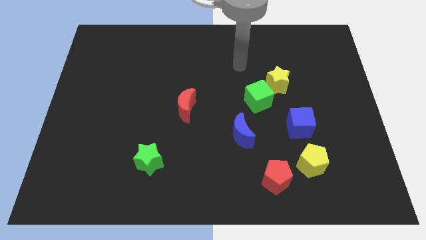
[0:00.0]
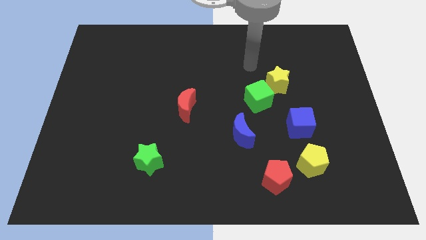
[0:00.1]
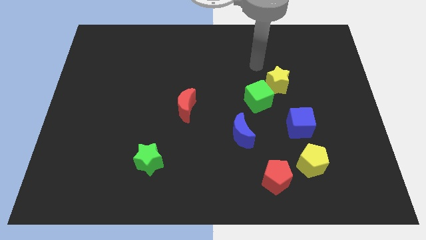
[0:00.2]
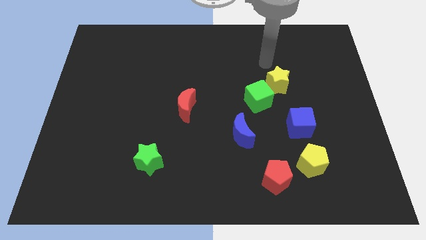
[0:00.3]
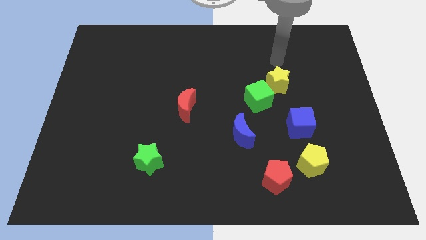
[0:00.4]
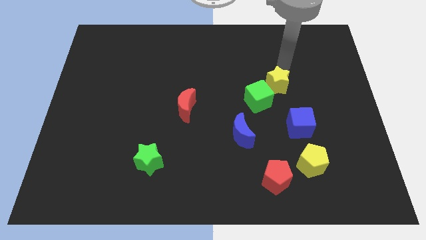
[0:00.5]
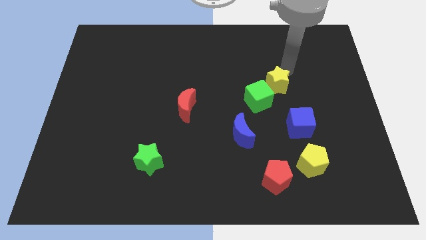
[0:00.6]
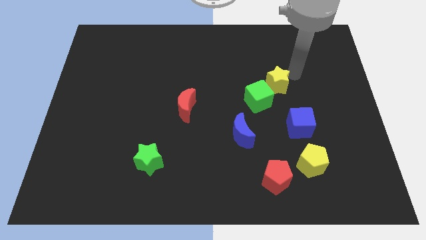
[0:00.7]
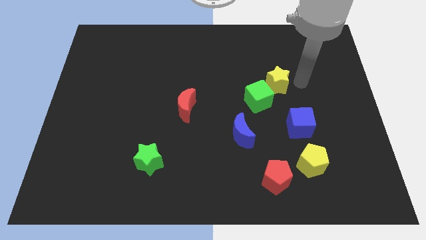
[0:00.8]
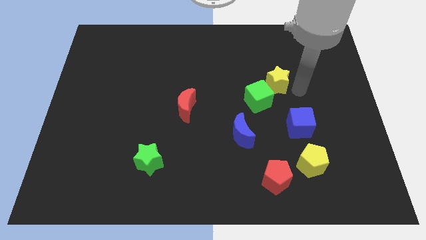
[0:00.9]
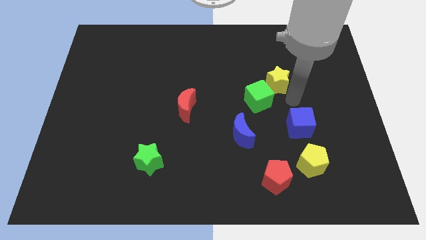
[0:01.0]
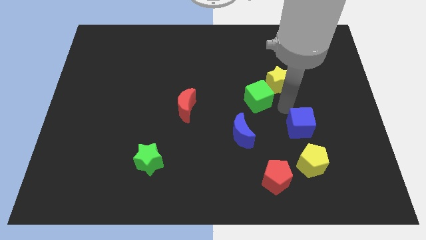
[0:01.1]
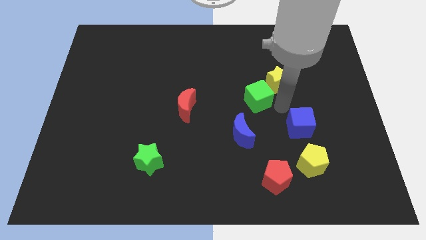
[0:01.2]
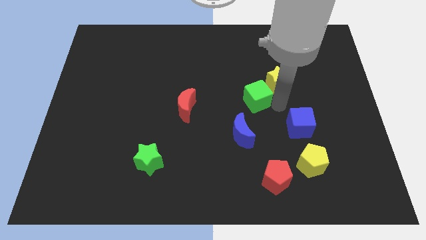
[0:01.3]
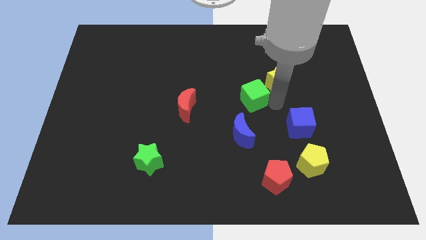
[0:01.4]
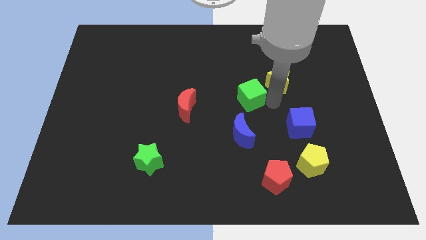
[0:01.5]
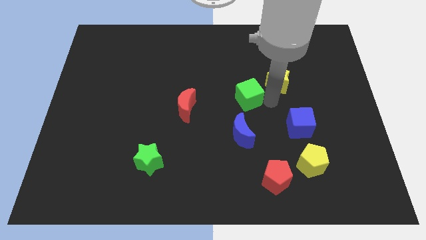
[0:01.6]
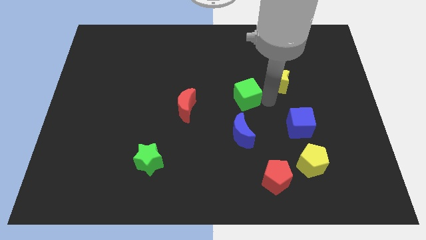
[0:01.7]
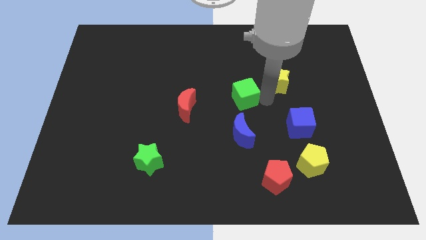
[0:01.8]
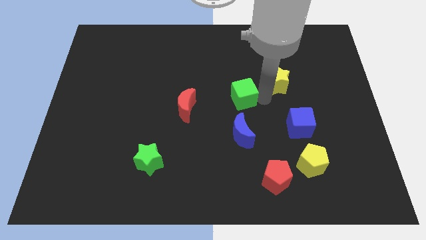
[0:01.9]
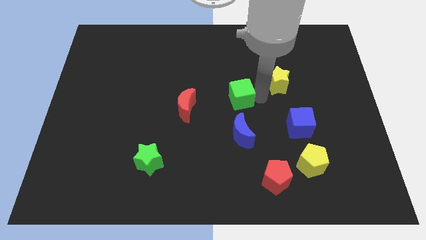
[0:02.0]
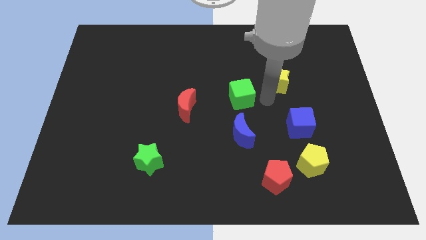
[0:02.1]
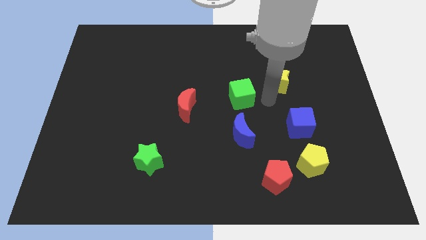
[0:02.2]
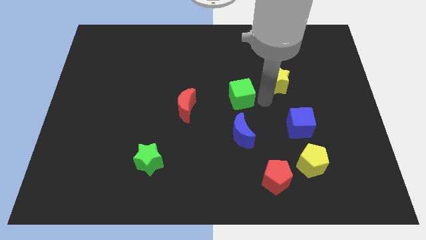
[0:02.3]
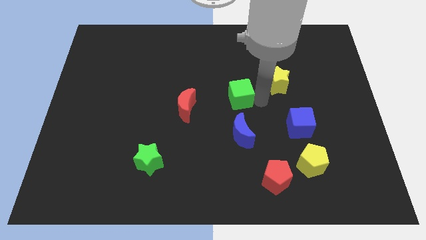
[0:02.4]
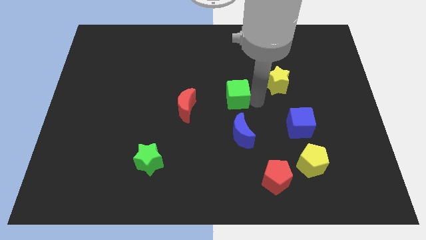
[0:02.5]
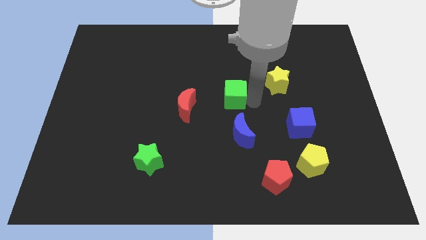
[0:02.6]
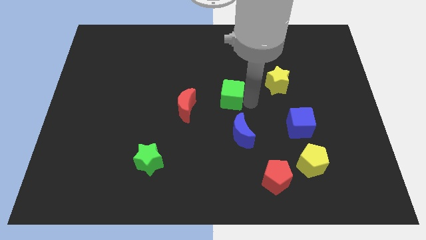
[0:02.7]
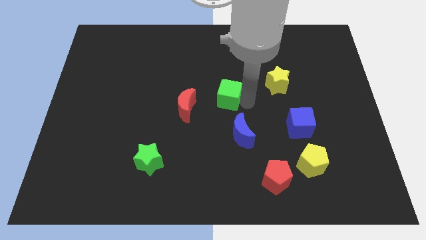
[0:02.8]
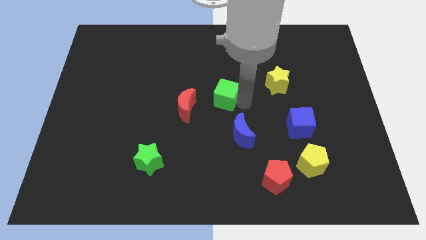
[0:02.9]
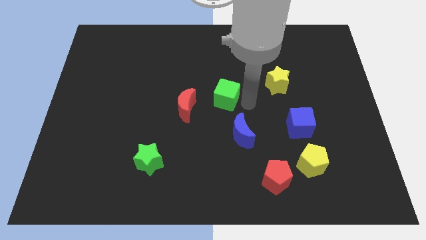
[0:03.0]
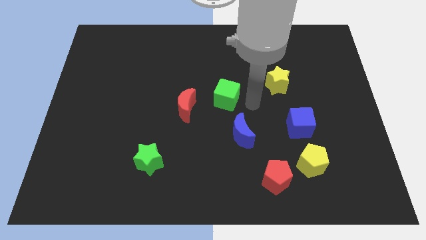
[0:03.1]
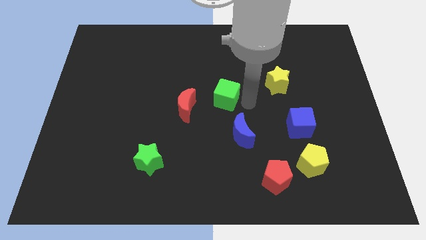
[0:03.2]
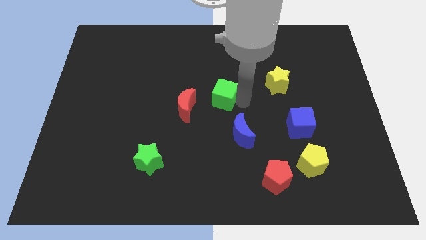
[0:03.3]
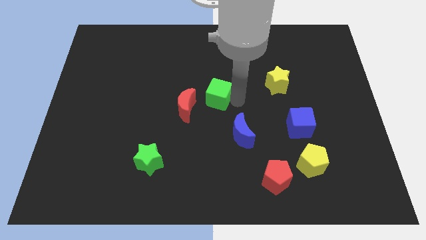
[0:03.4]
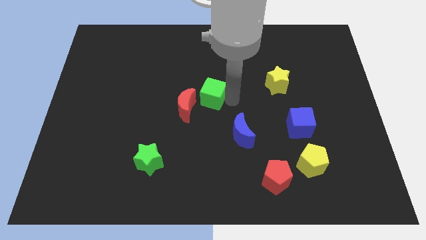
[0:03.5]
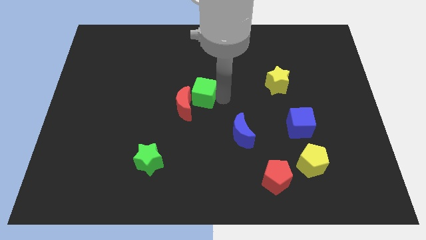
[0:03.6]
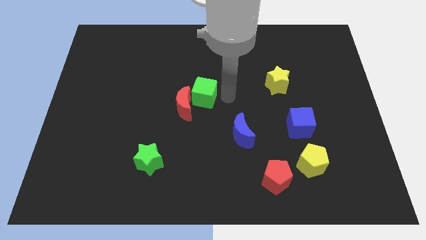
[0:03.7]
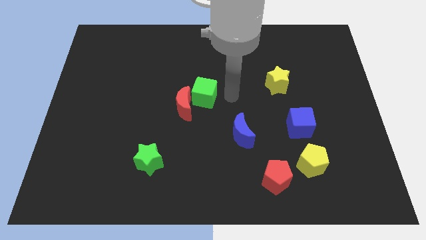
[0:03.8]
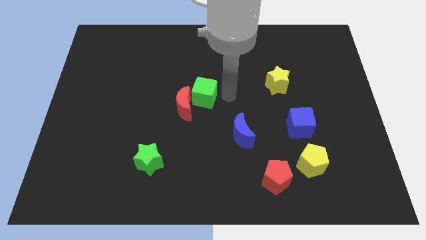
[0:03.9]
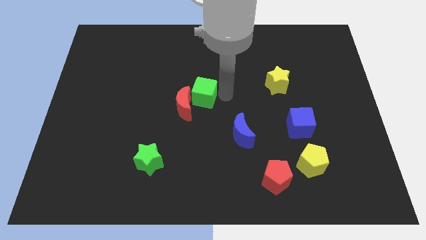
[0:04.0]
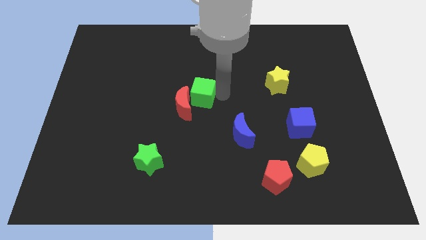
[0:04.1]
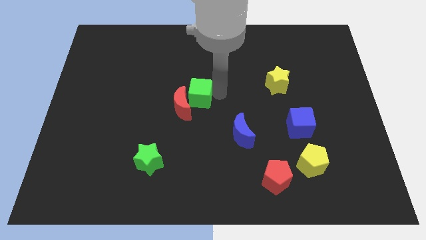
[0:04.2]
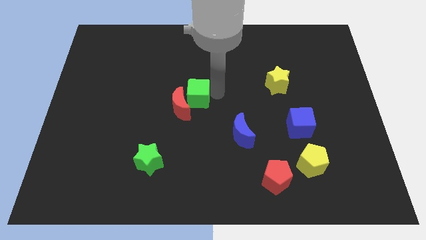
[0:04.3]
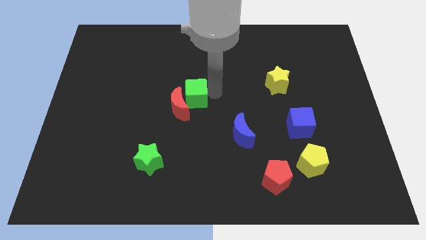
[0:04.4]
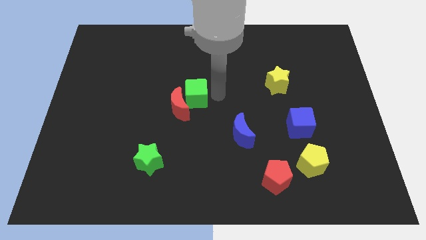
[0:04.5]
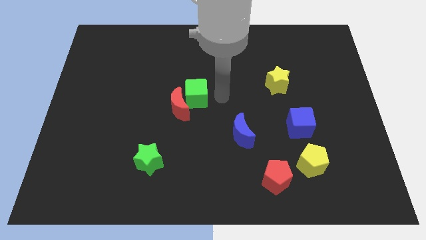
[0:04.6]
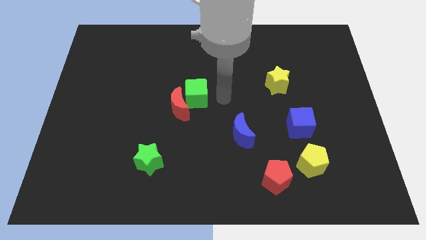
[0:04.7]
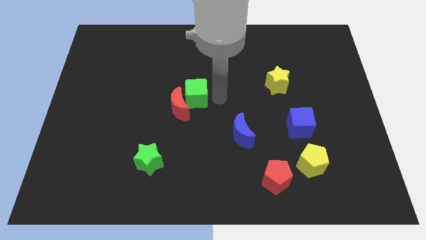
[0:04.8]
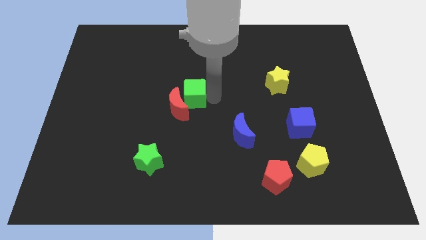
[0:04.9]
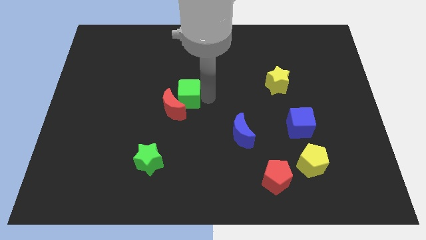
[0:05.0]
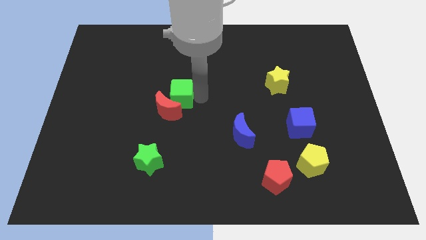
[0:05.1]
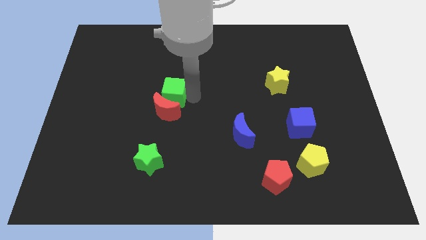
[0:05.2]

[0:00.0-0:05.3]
move the green cube to the left

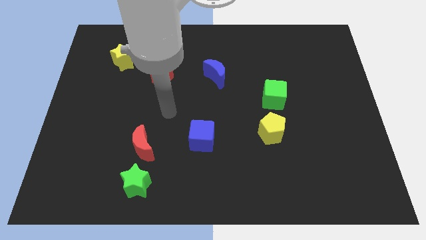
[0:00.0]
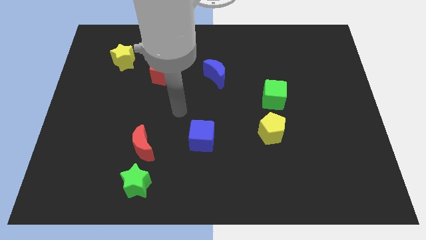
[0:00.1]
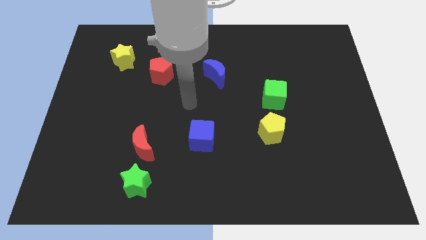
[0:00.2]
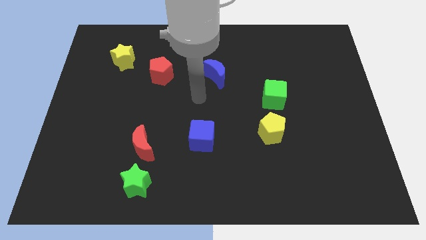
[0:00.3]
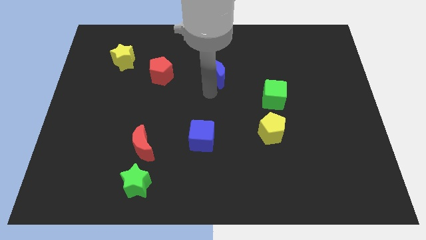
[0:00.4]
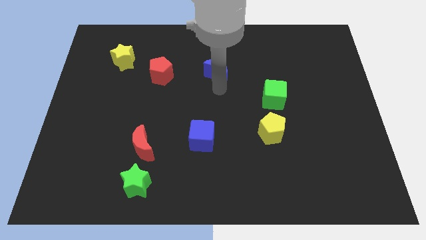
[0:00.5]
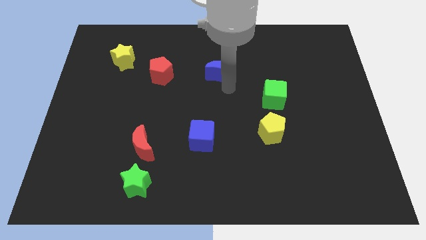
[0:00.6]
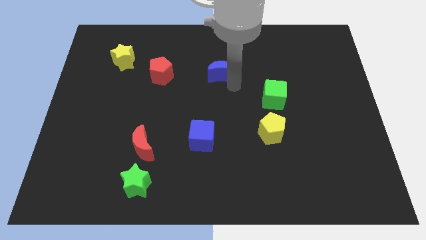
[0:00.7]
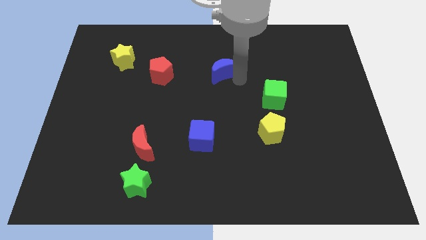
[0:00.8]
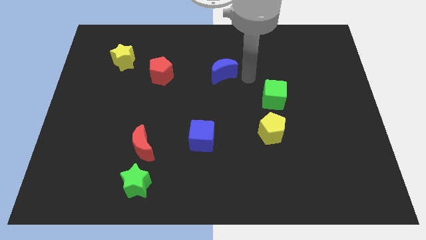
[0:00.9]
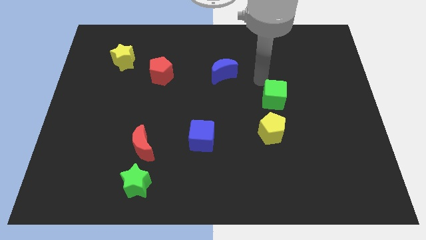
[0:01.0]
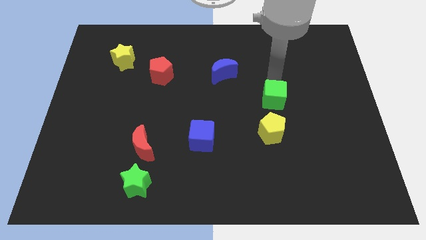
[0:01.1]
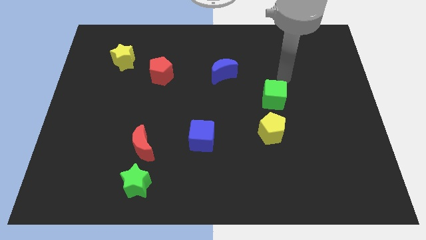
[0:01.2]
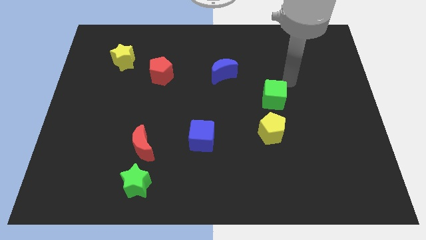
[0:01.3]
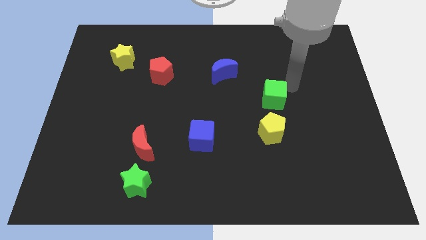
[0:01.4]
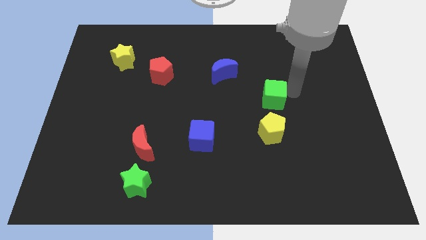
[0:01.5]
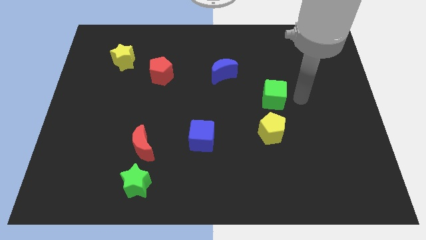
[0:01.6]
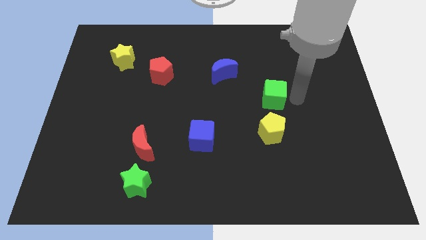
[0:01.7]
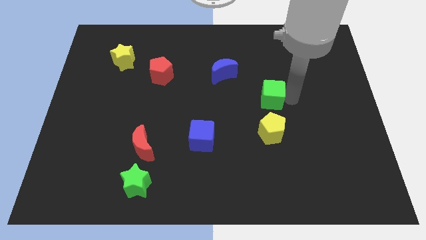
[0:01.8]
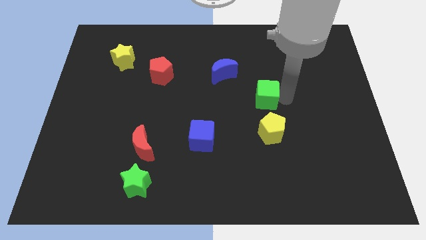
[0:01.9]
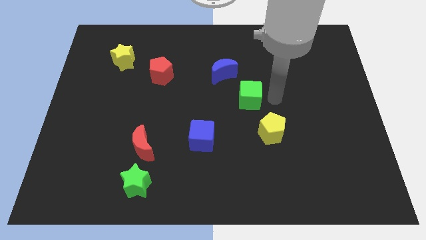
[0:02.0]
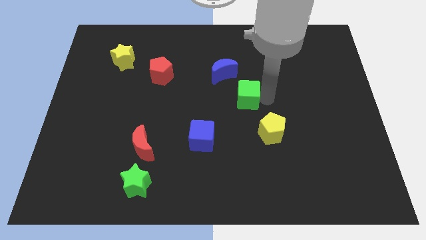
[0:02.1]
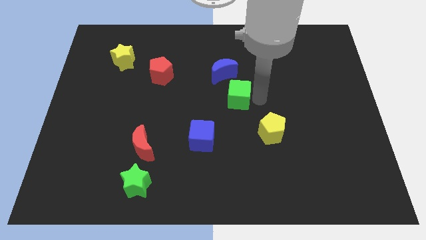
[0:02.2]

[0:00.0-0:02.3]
move the green cube a bit left

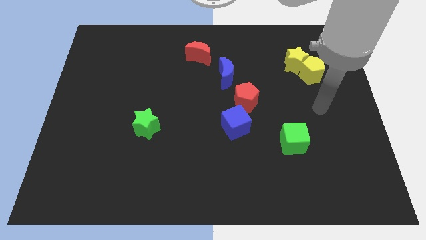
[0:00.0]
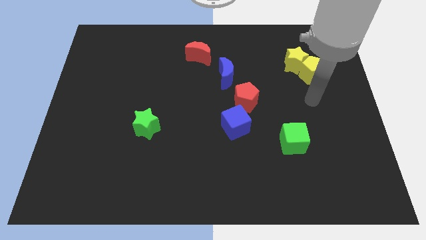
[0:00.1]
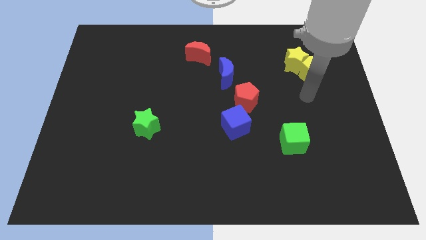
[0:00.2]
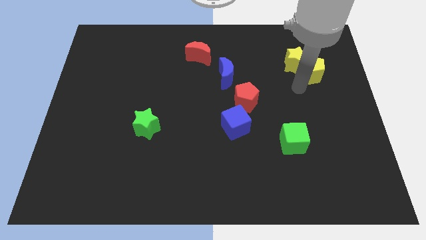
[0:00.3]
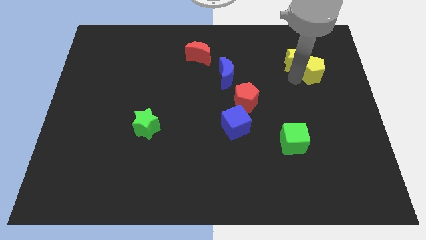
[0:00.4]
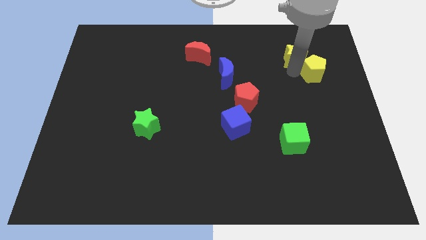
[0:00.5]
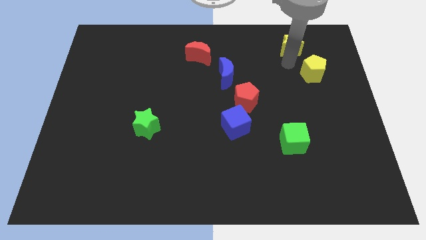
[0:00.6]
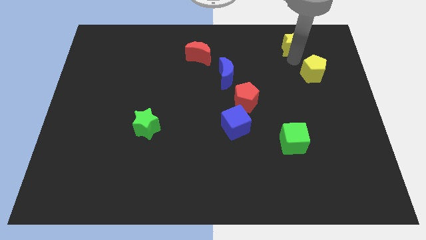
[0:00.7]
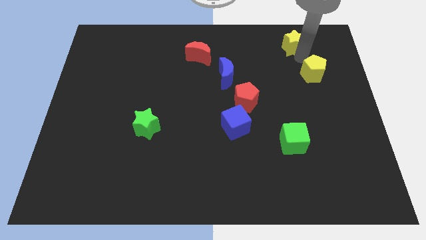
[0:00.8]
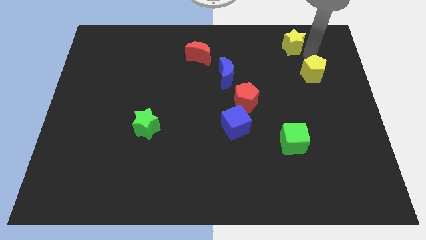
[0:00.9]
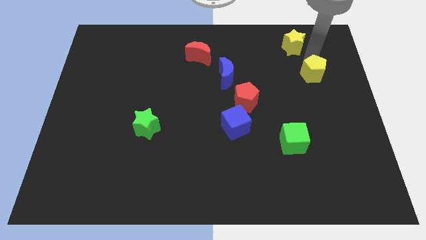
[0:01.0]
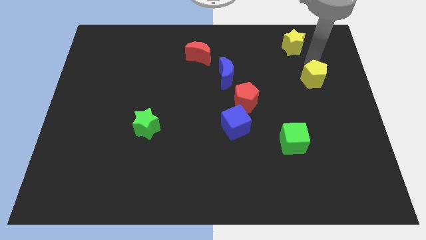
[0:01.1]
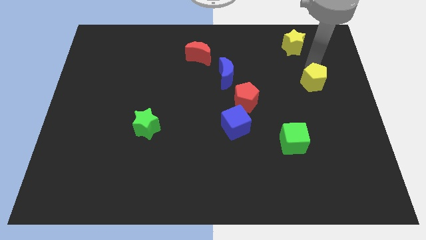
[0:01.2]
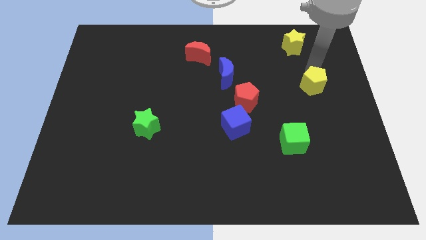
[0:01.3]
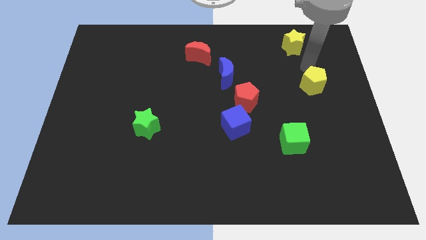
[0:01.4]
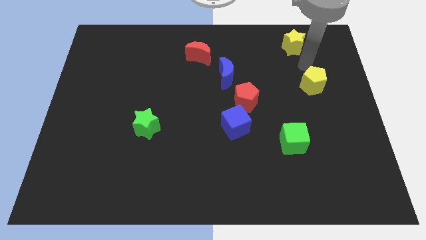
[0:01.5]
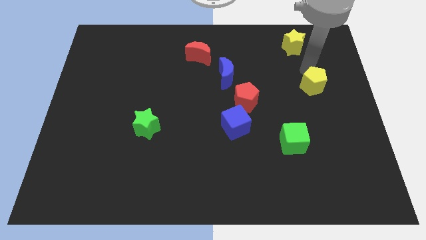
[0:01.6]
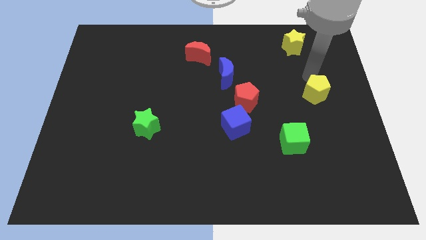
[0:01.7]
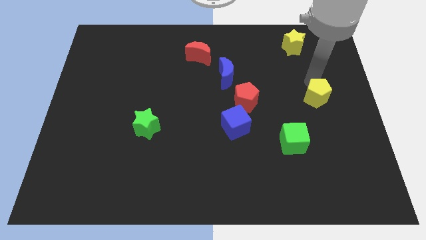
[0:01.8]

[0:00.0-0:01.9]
slightly move the yellow pentagon downwards
